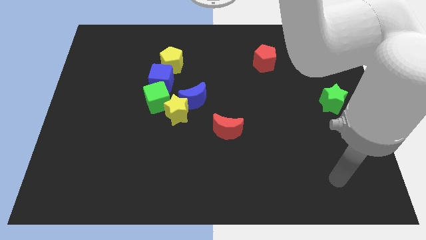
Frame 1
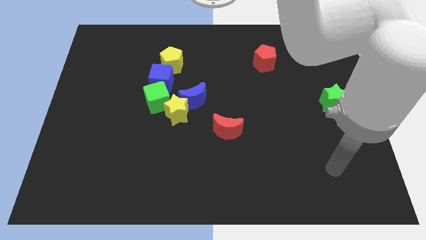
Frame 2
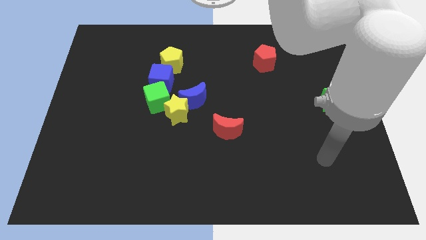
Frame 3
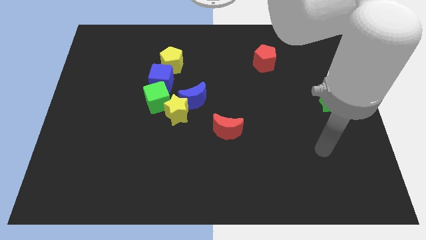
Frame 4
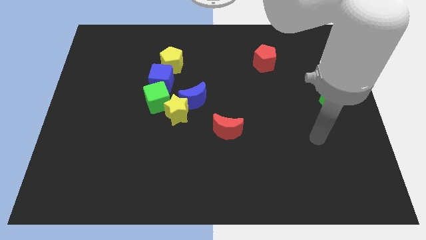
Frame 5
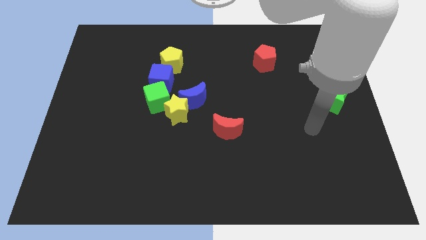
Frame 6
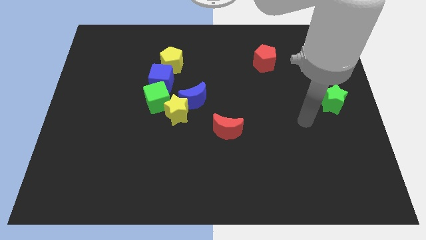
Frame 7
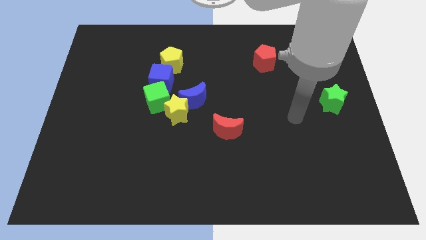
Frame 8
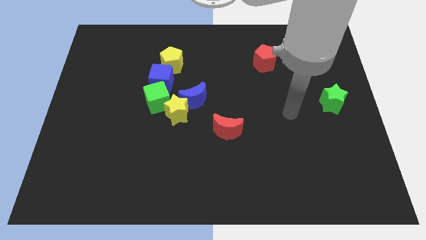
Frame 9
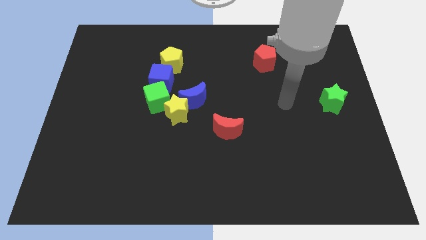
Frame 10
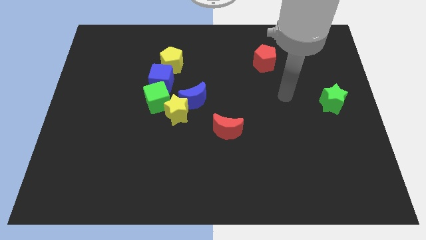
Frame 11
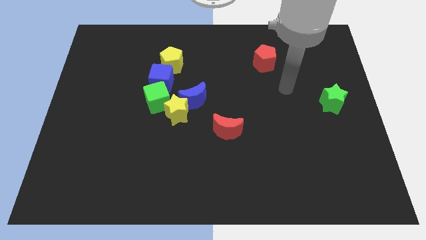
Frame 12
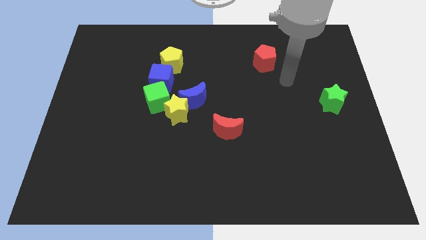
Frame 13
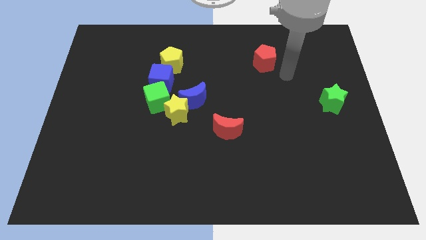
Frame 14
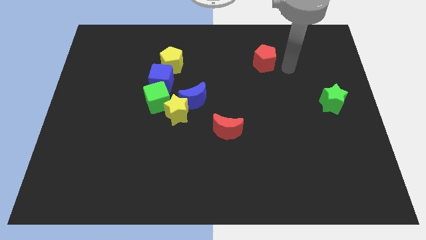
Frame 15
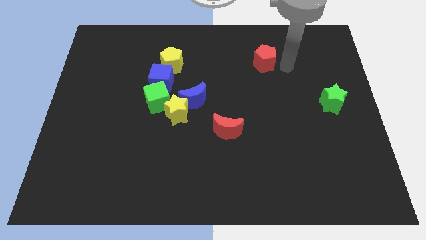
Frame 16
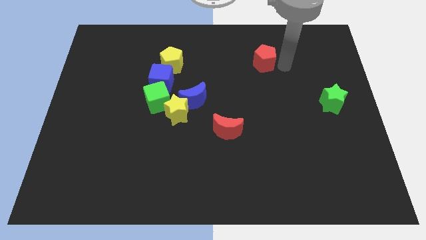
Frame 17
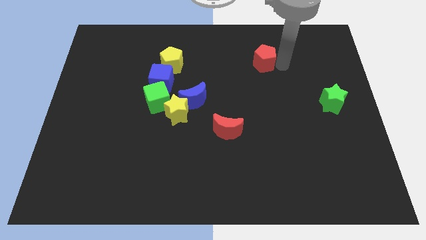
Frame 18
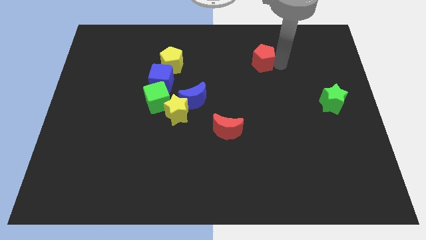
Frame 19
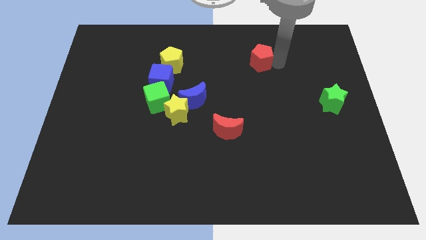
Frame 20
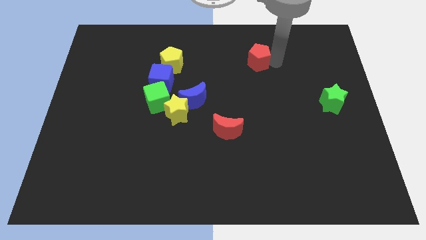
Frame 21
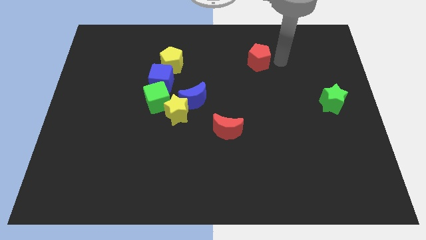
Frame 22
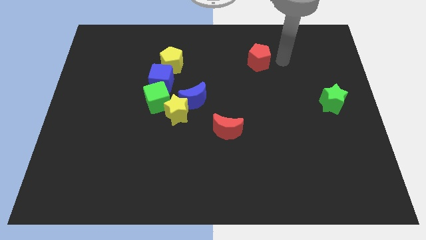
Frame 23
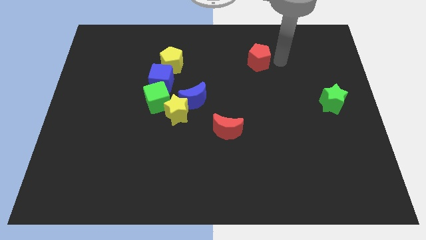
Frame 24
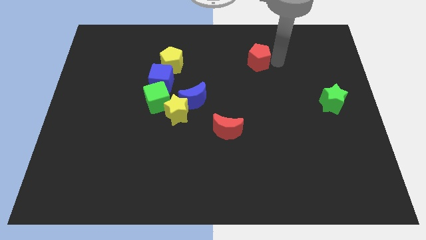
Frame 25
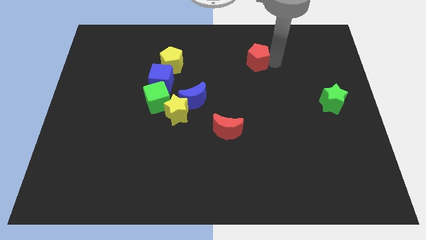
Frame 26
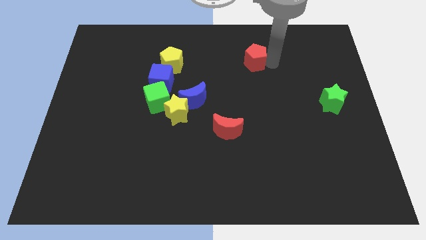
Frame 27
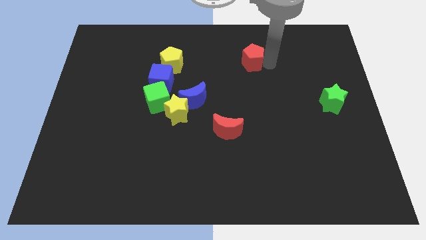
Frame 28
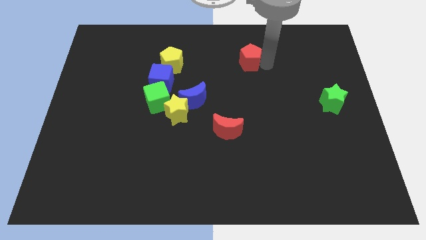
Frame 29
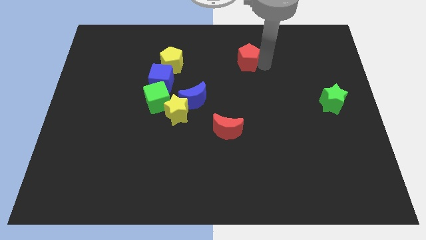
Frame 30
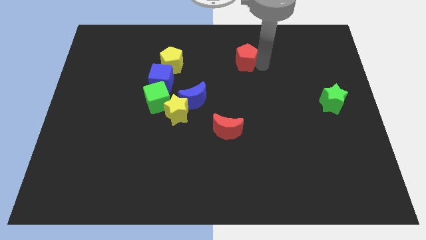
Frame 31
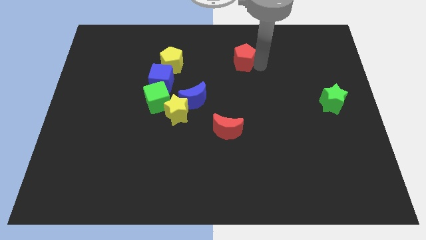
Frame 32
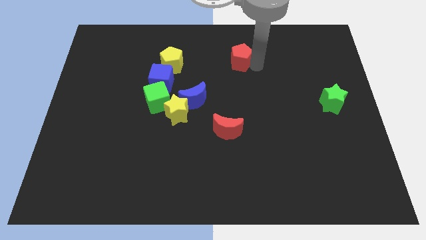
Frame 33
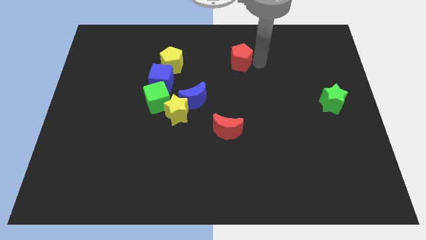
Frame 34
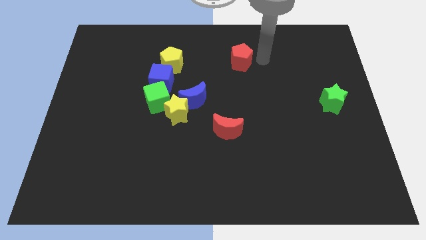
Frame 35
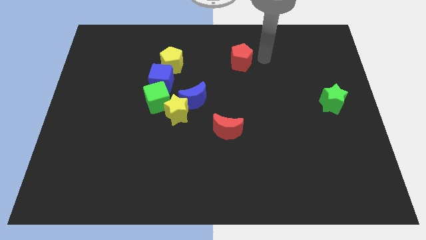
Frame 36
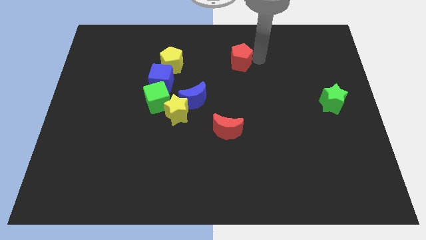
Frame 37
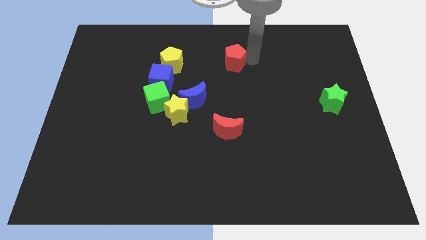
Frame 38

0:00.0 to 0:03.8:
slightly push the red pentagon to the left

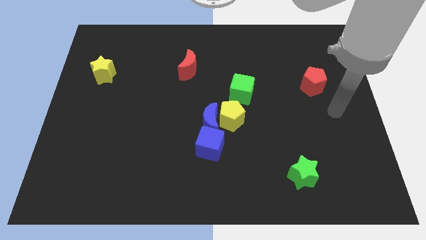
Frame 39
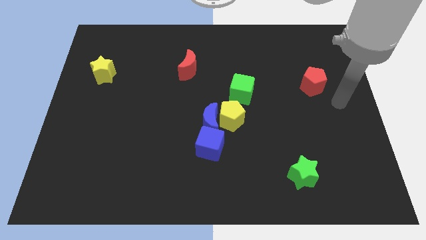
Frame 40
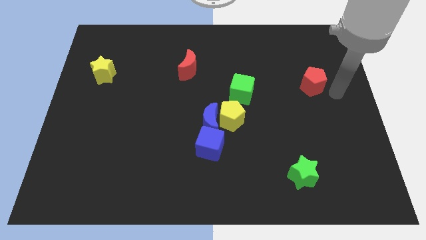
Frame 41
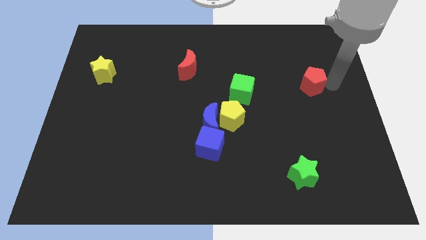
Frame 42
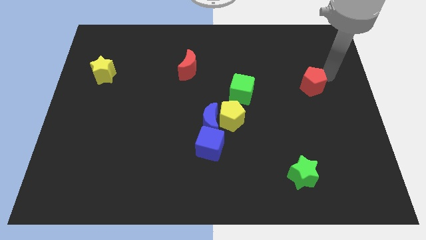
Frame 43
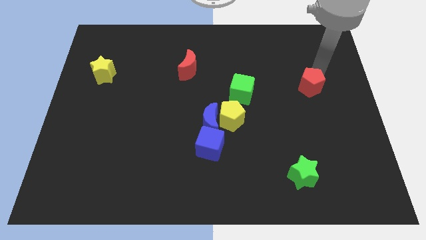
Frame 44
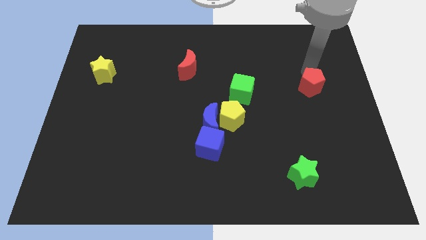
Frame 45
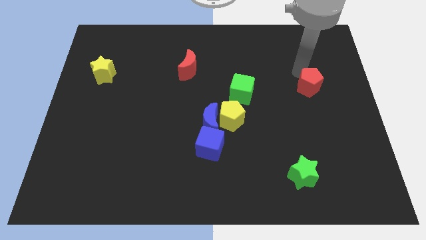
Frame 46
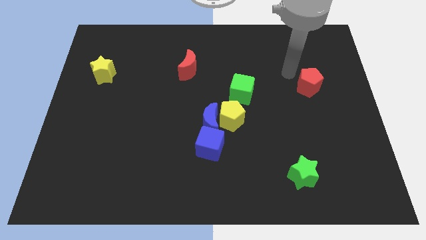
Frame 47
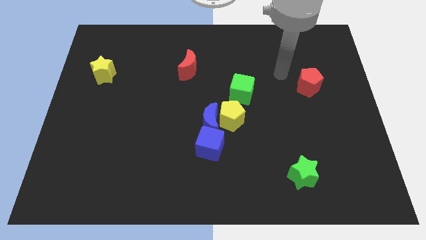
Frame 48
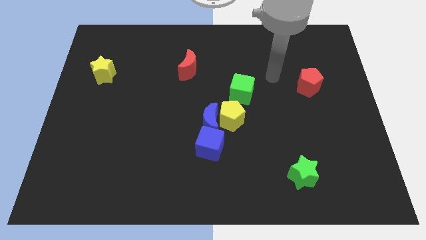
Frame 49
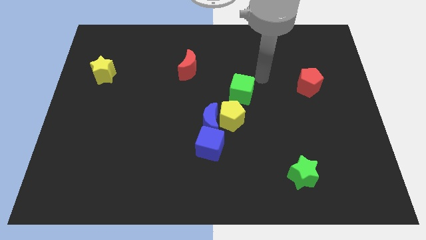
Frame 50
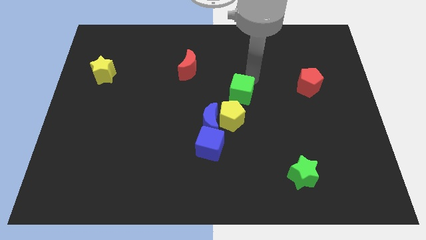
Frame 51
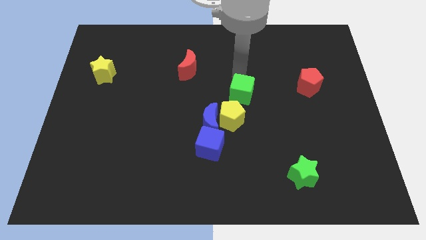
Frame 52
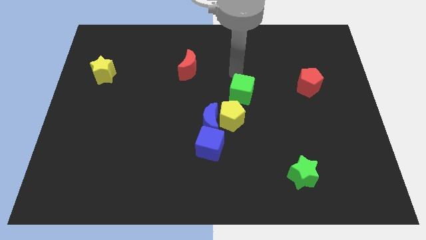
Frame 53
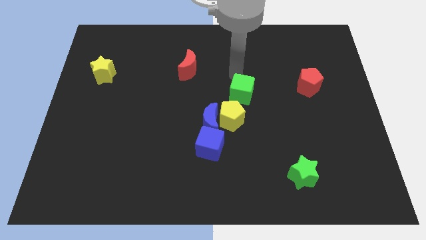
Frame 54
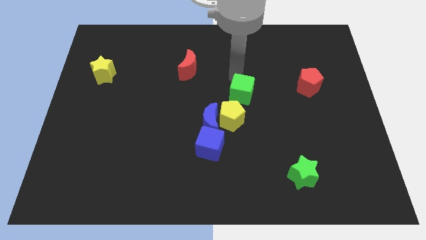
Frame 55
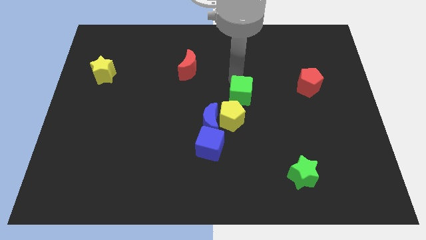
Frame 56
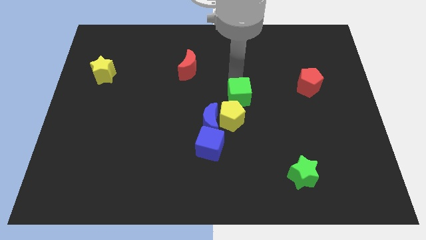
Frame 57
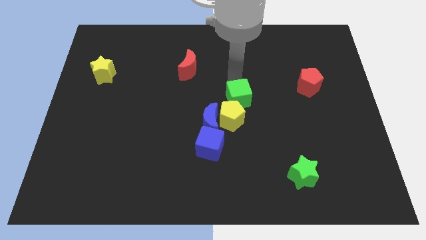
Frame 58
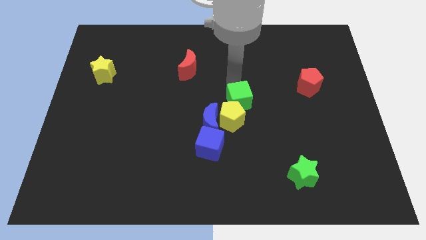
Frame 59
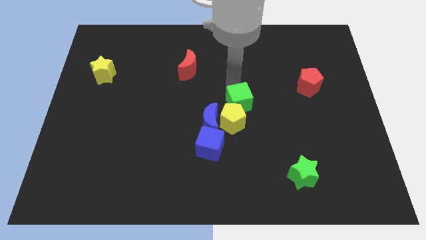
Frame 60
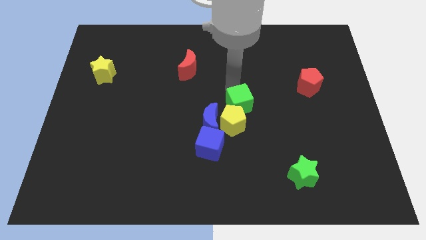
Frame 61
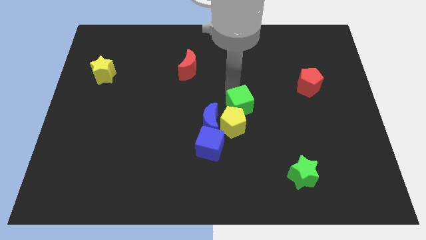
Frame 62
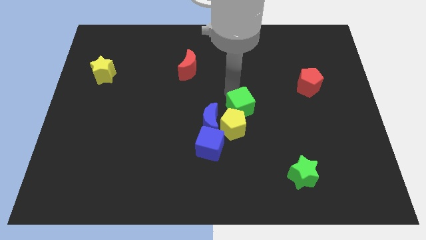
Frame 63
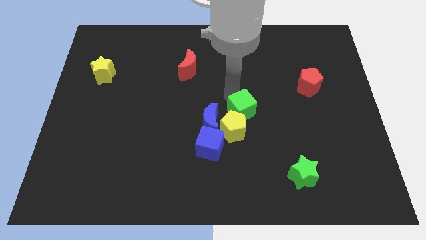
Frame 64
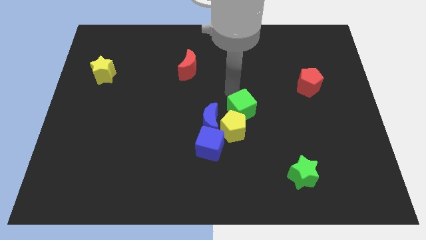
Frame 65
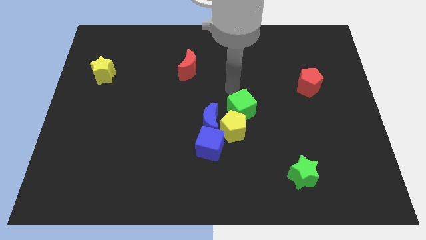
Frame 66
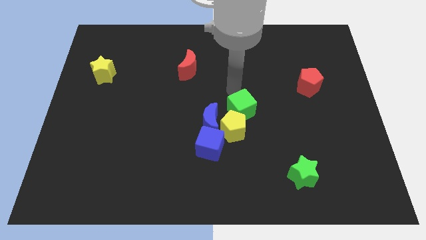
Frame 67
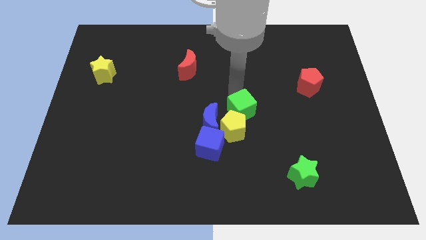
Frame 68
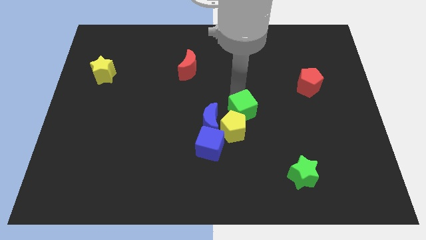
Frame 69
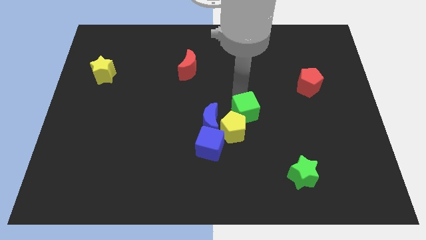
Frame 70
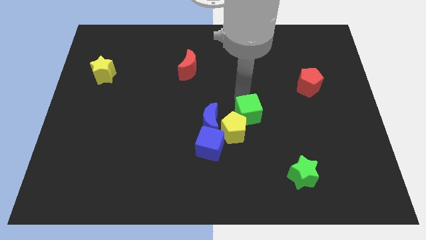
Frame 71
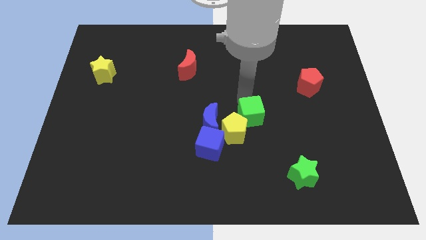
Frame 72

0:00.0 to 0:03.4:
slide the green cube slightly downwards

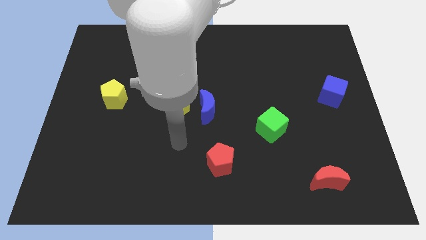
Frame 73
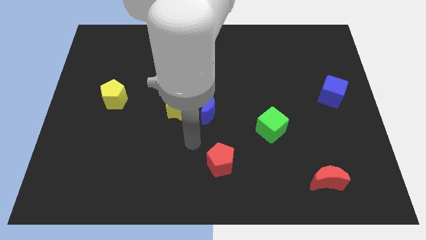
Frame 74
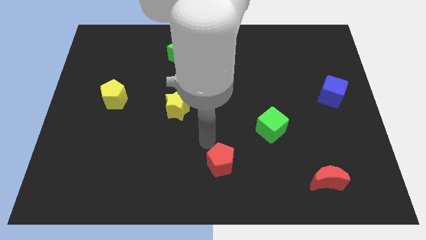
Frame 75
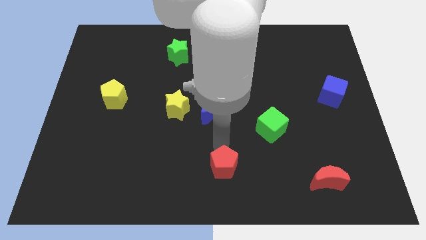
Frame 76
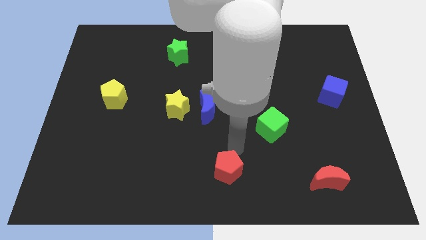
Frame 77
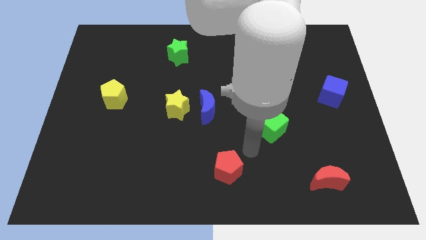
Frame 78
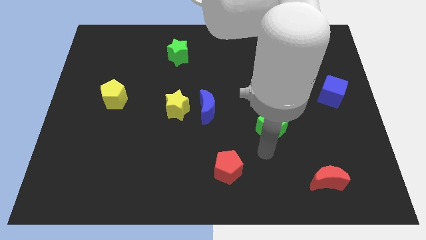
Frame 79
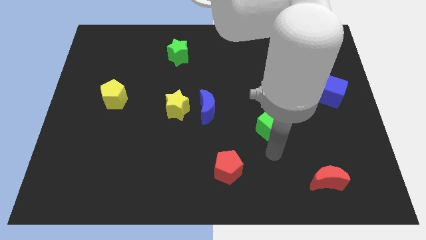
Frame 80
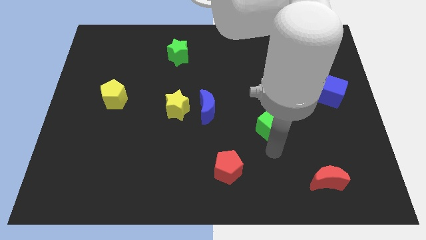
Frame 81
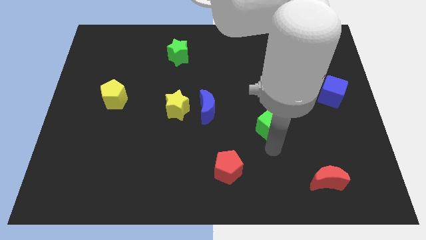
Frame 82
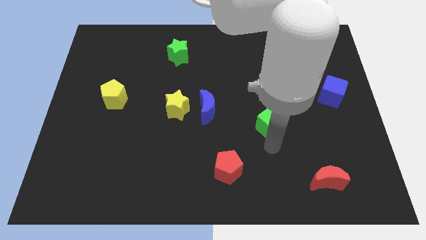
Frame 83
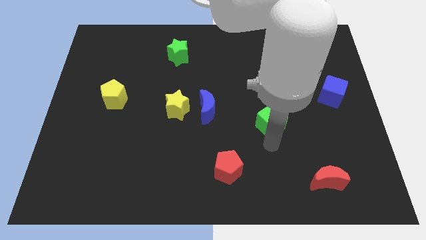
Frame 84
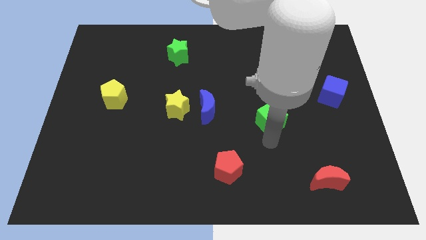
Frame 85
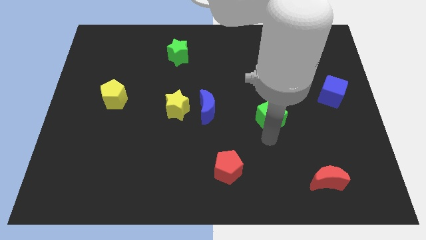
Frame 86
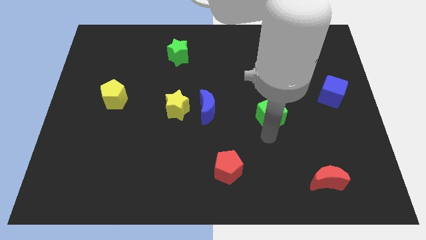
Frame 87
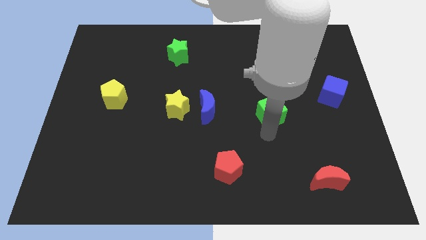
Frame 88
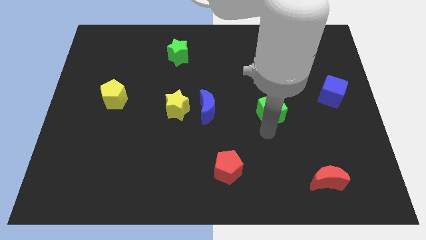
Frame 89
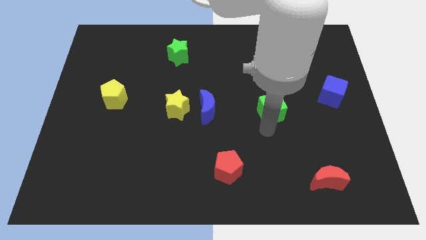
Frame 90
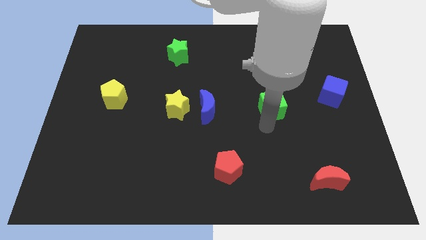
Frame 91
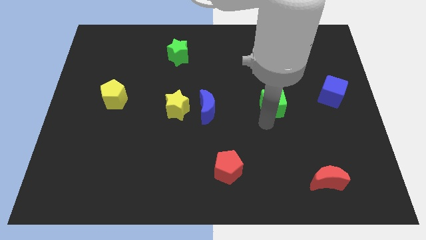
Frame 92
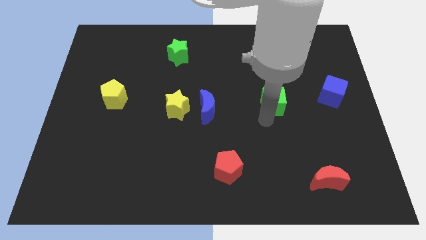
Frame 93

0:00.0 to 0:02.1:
slightly slide the green cube up
